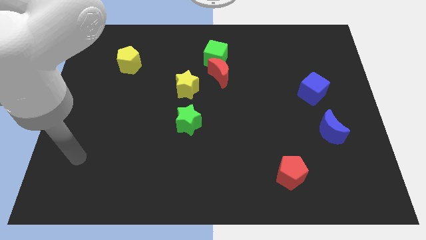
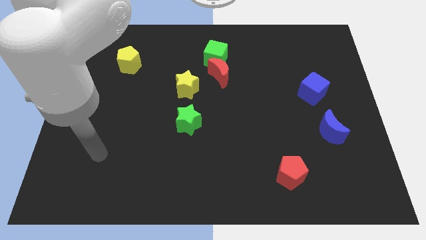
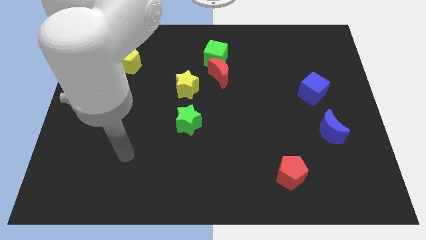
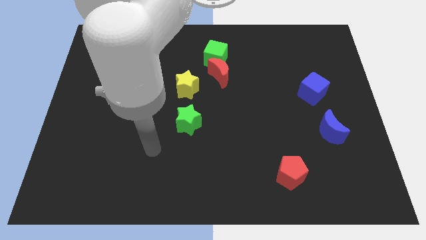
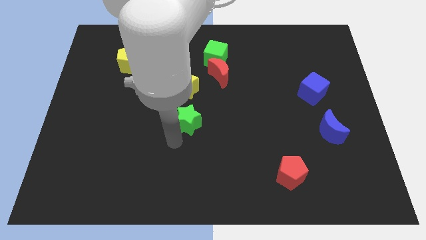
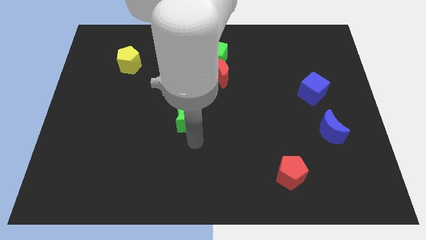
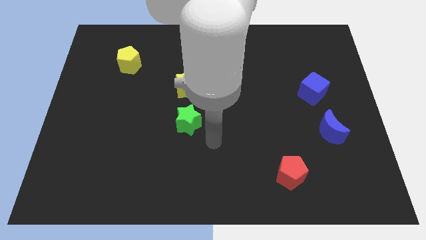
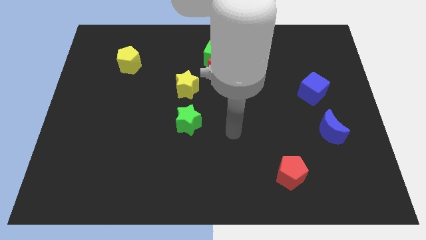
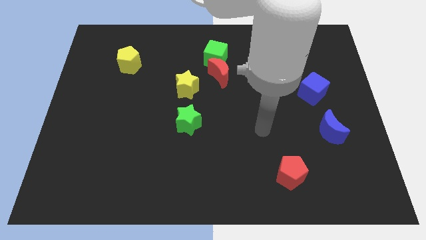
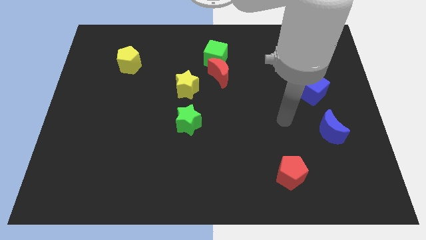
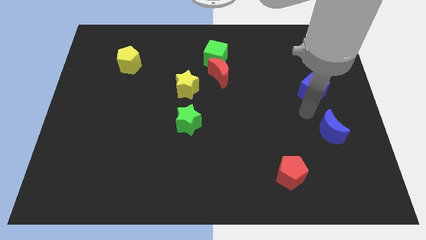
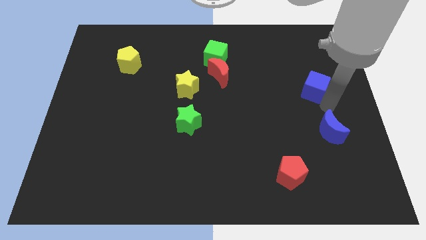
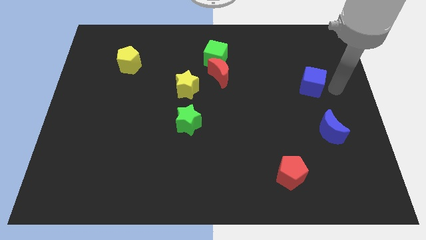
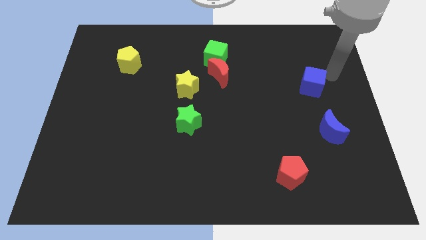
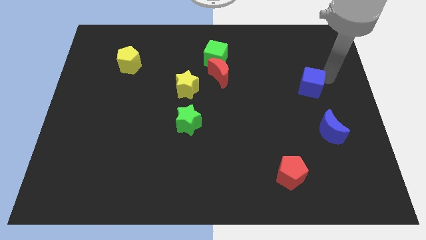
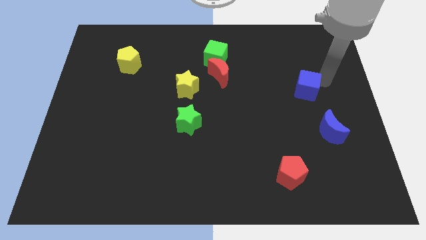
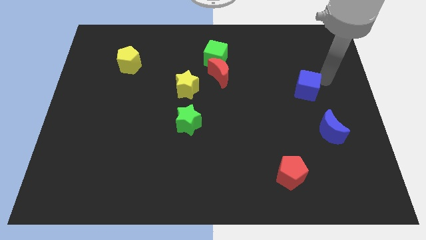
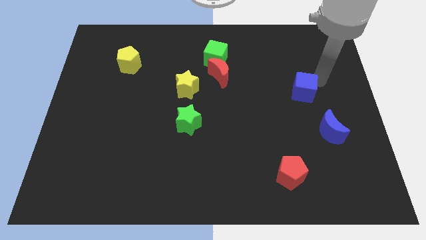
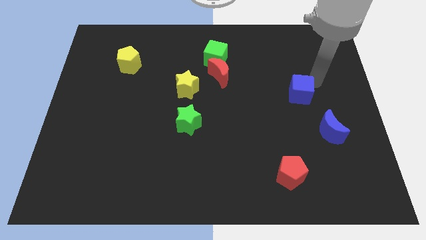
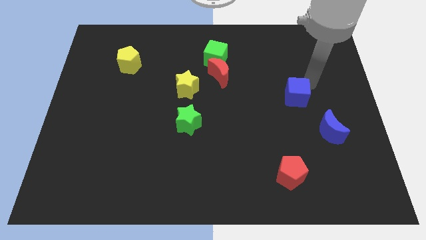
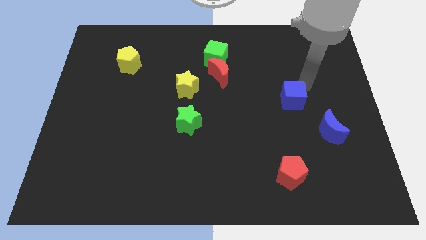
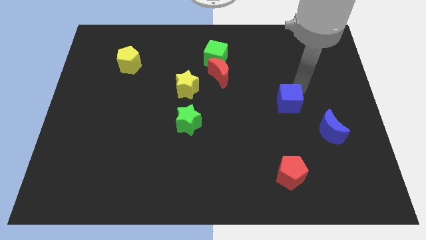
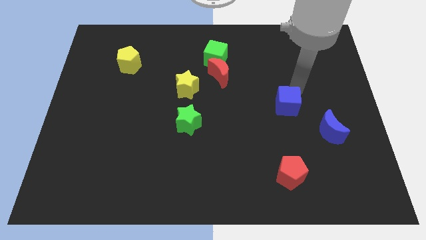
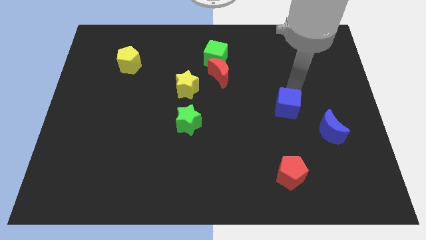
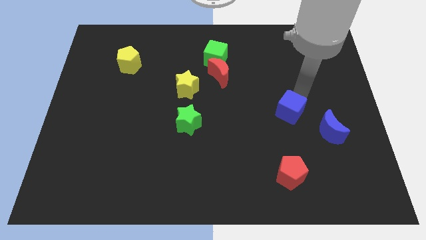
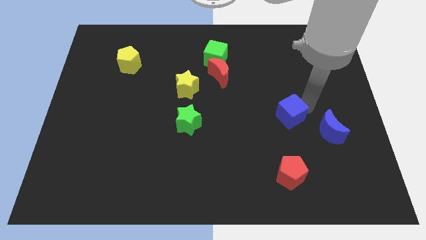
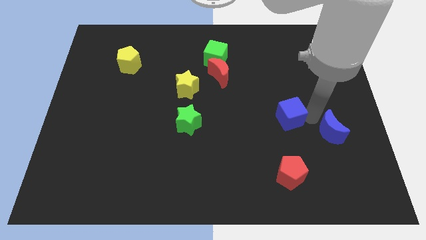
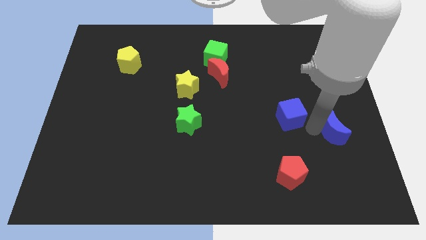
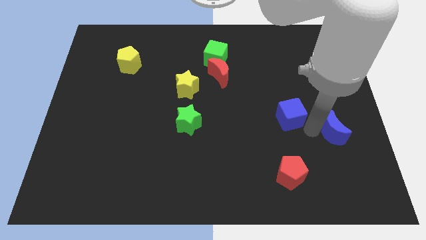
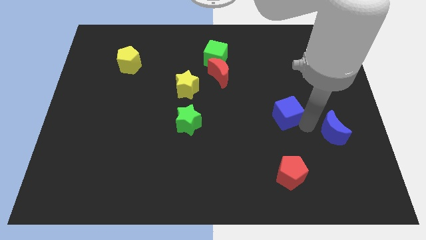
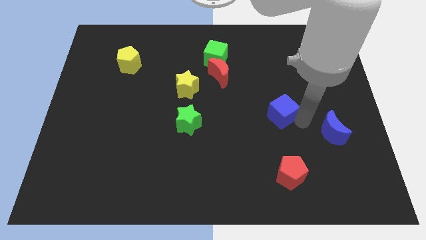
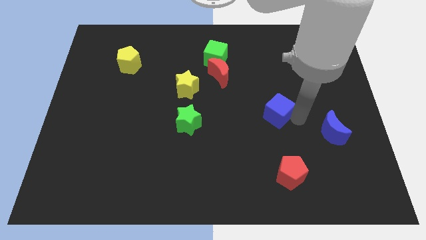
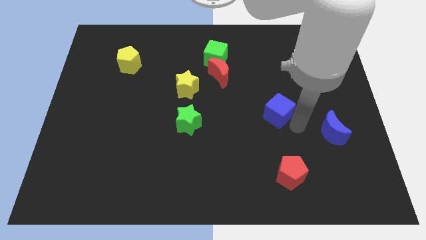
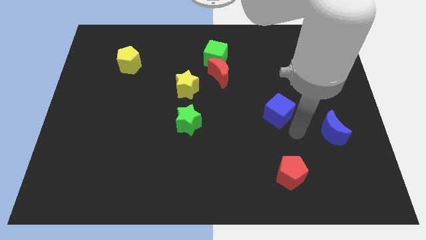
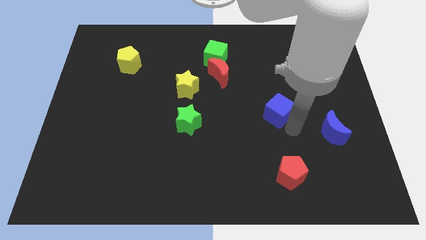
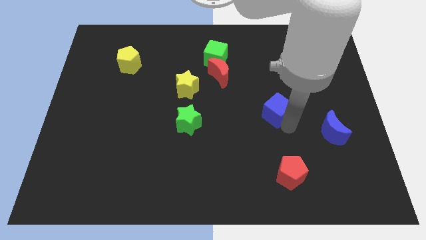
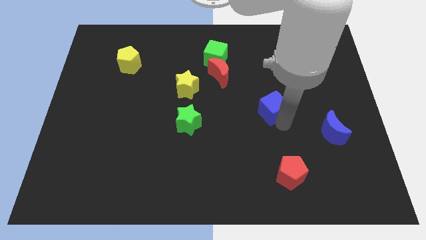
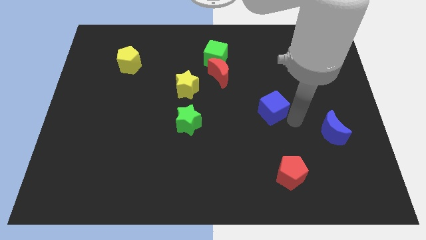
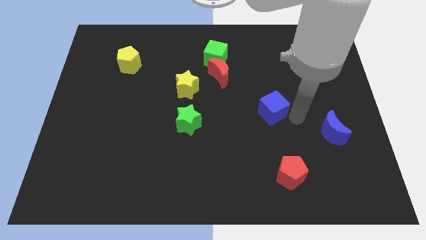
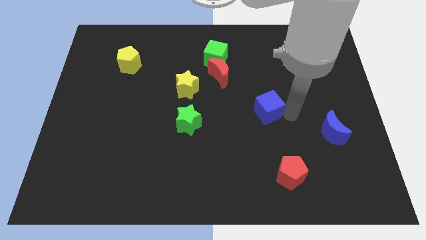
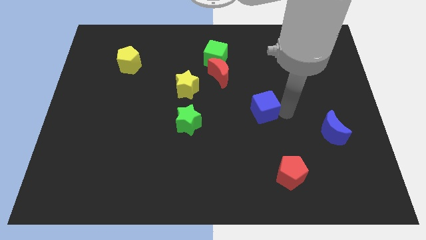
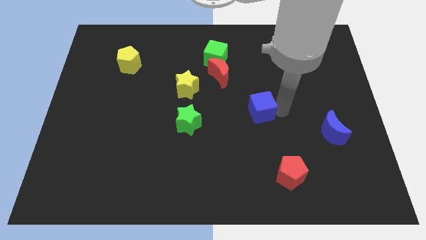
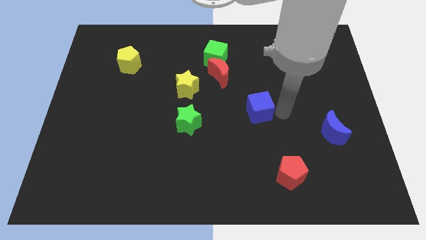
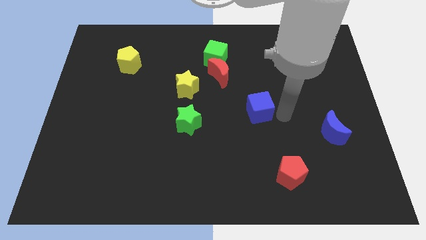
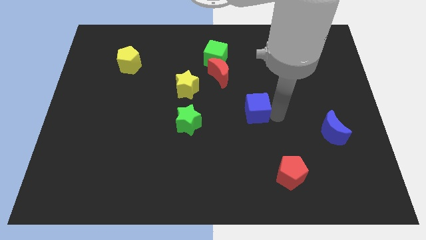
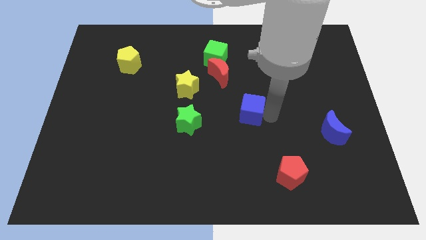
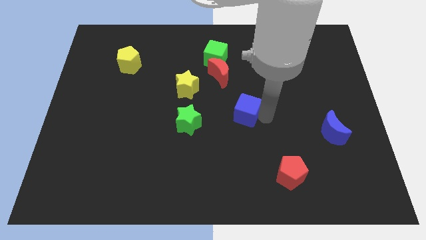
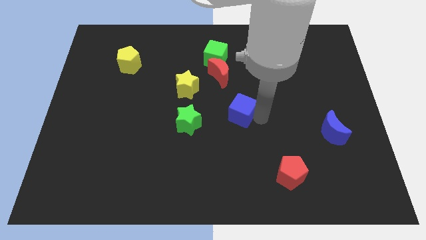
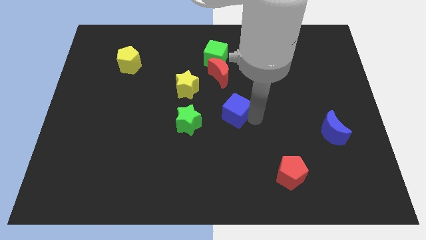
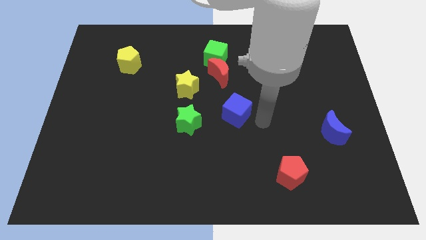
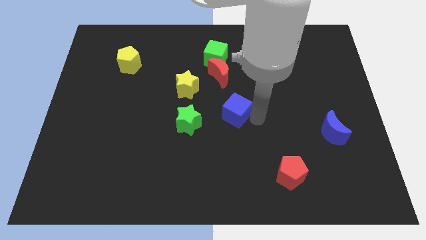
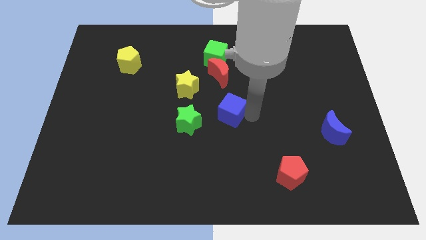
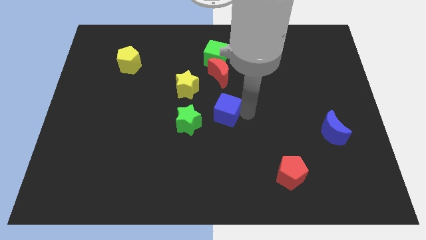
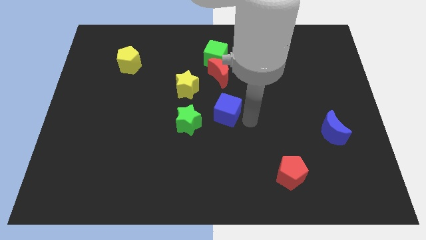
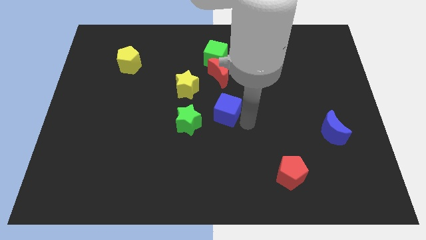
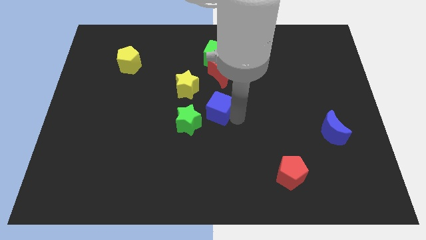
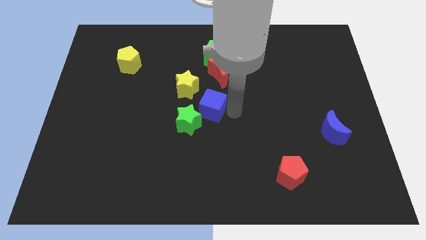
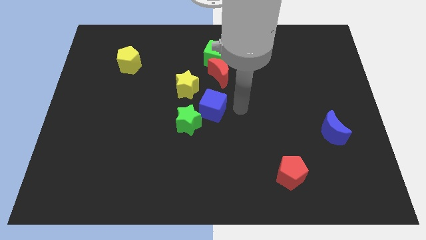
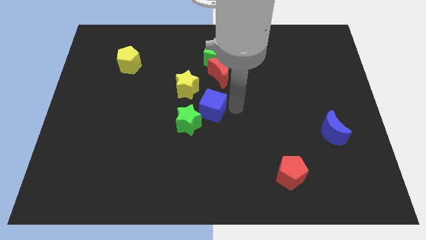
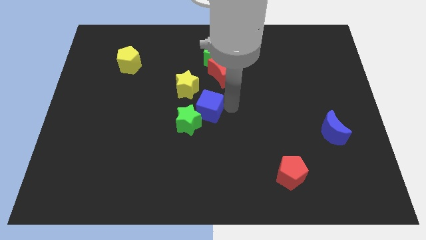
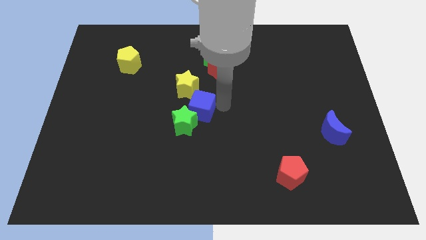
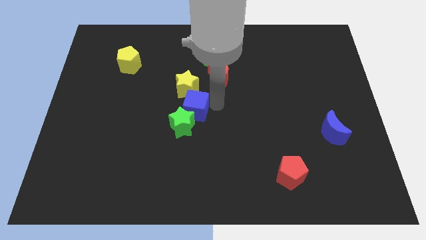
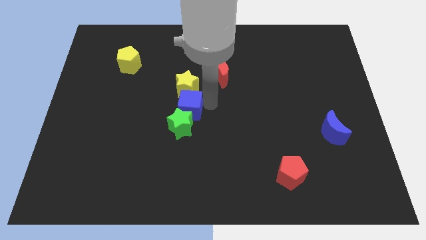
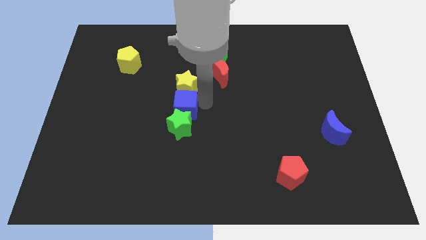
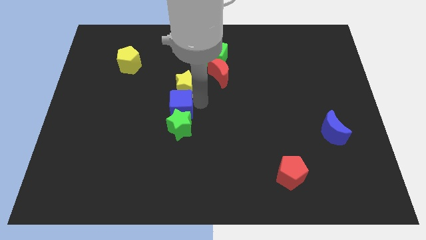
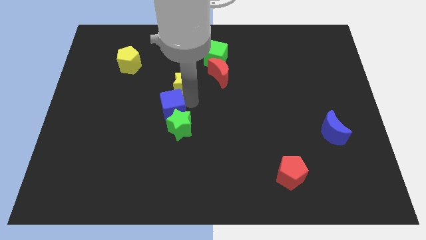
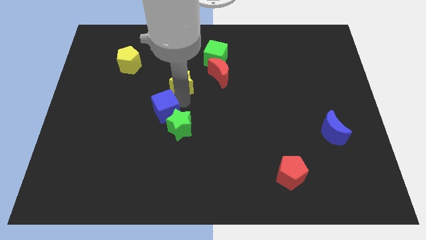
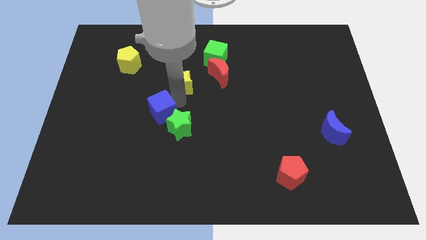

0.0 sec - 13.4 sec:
slide the blue cube to the left side of the green star

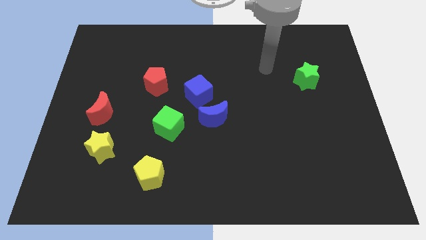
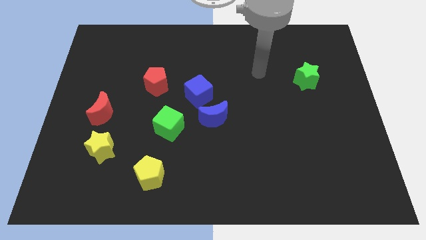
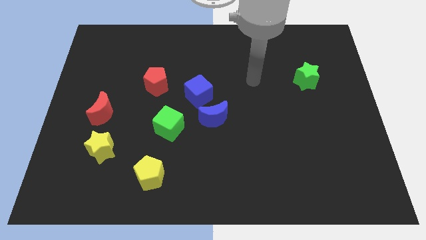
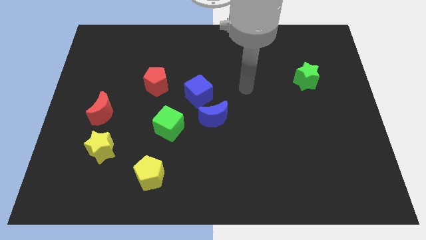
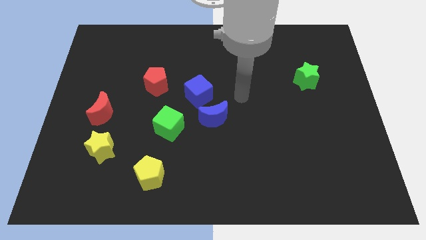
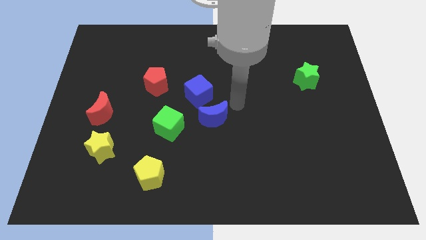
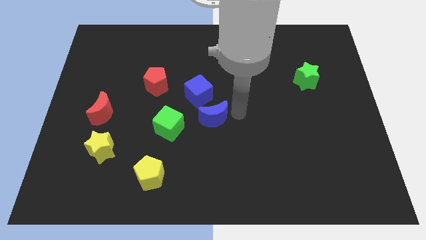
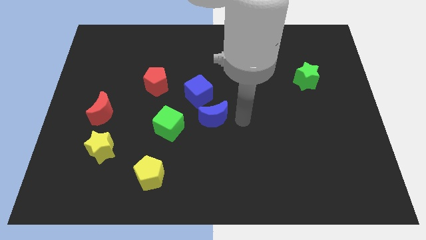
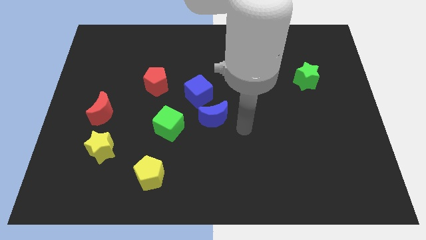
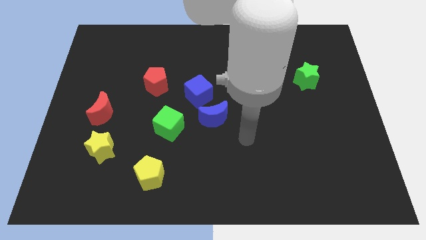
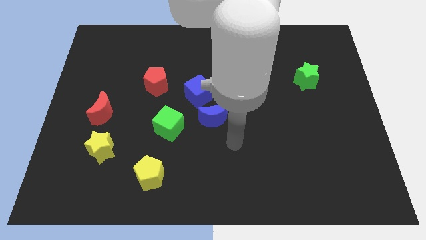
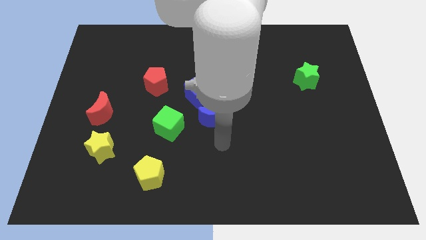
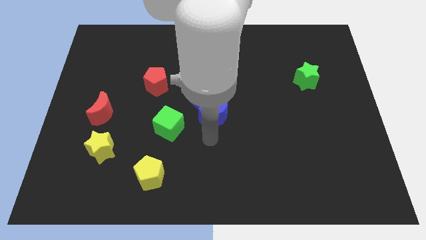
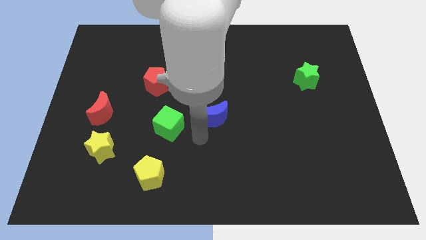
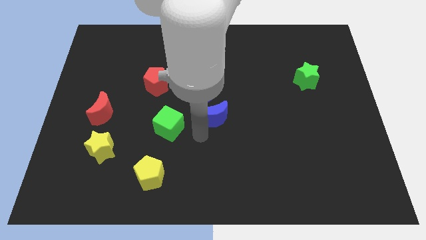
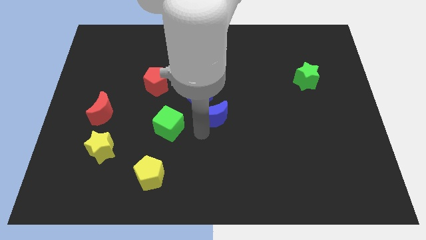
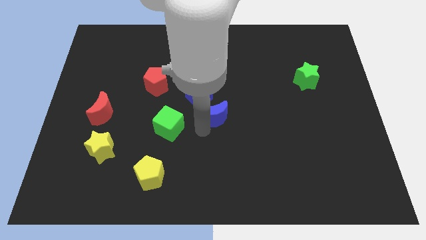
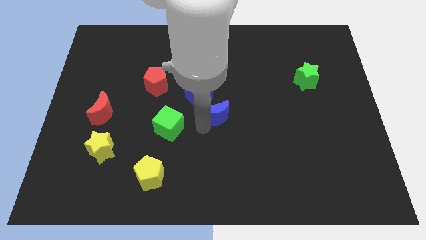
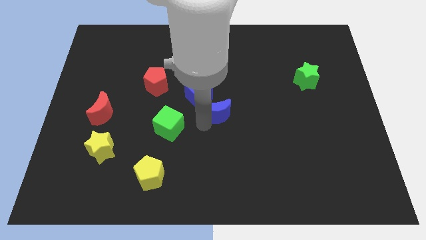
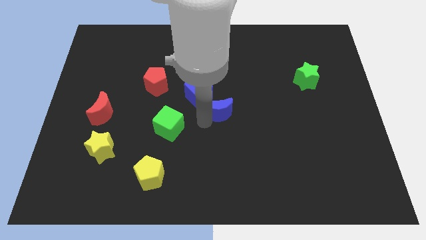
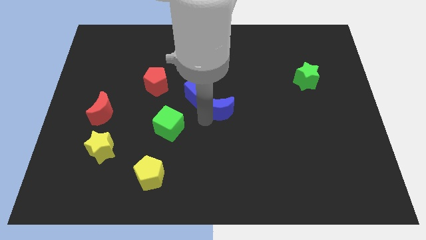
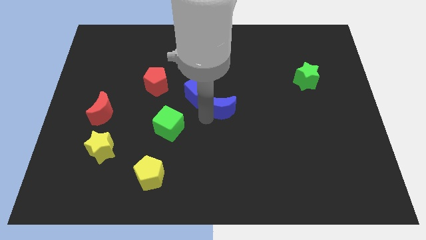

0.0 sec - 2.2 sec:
push the blue moon to the right side of the blue cube
